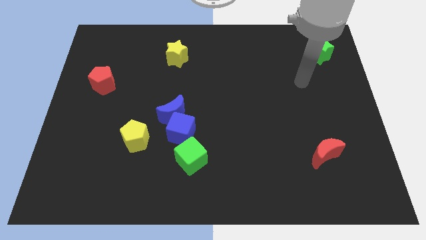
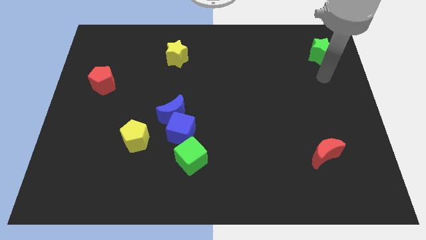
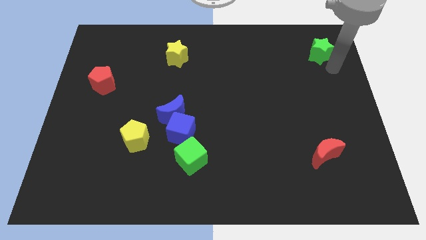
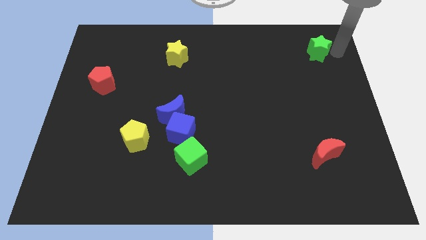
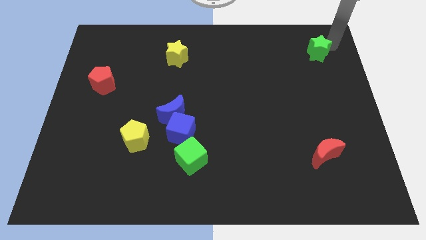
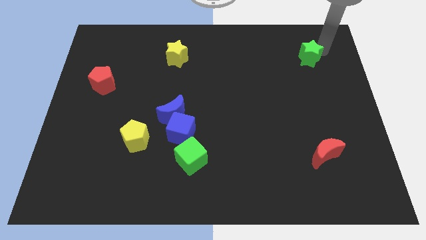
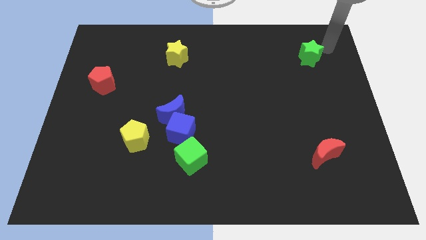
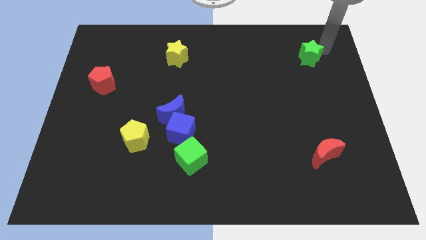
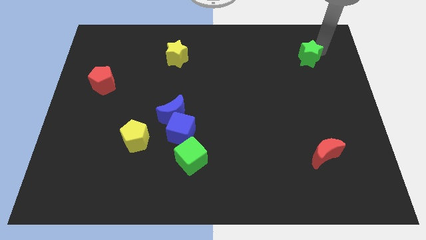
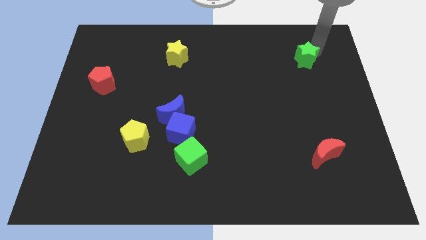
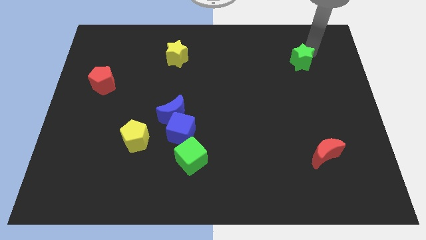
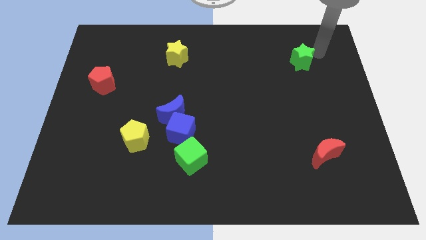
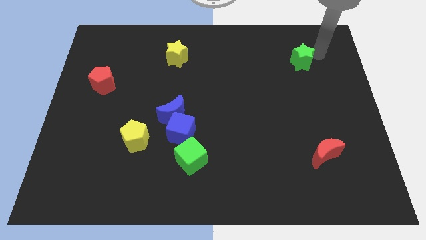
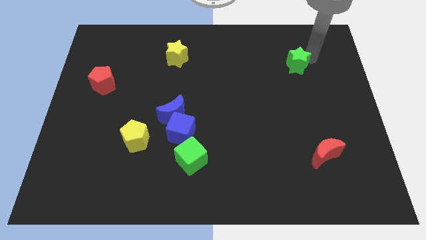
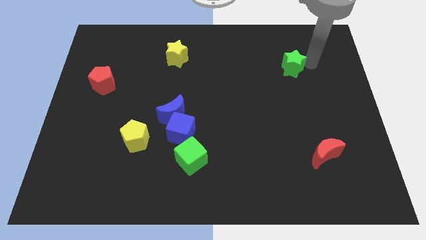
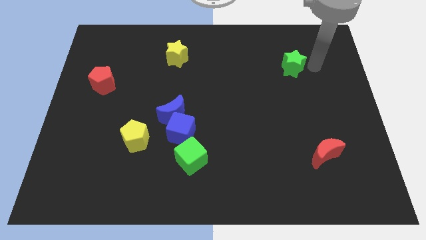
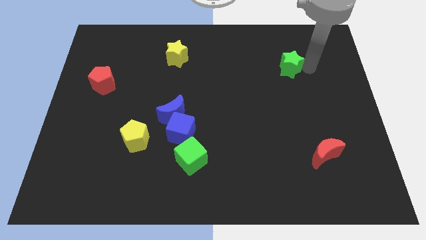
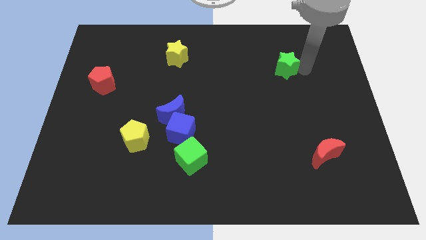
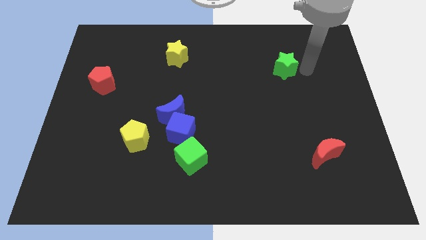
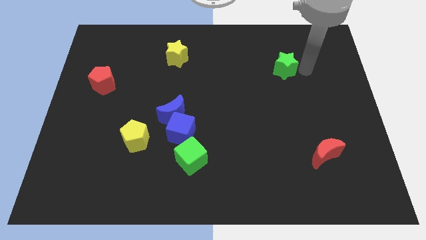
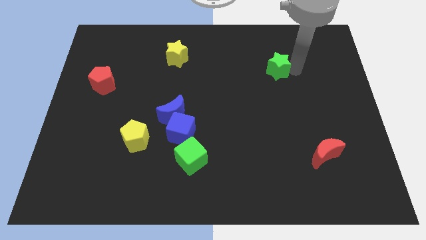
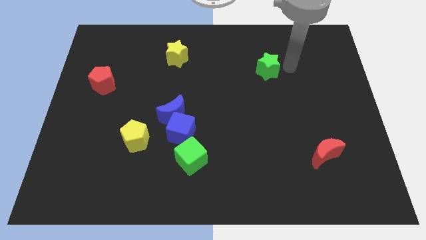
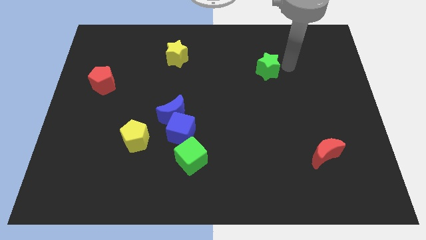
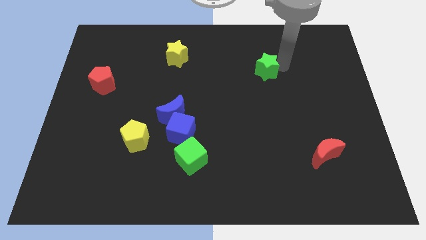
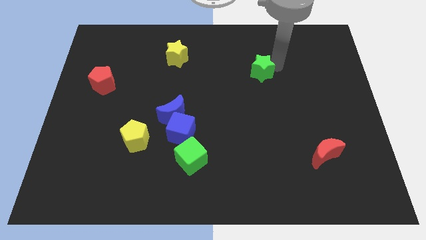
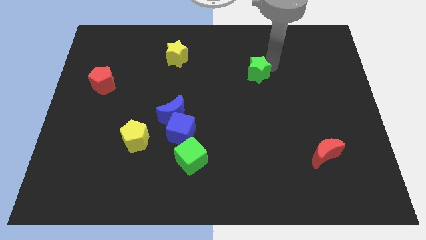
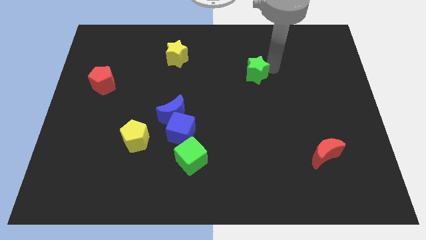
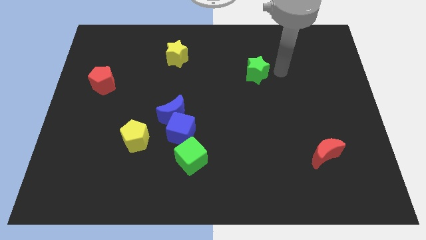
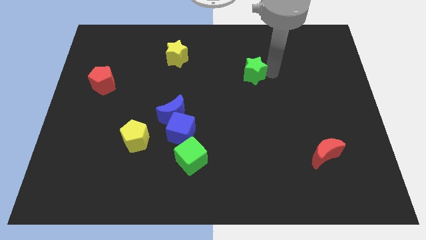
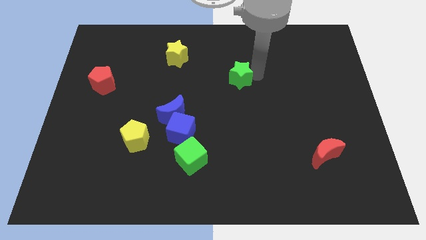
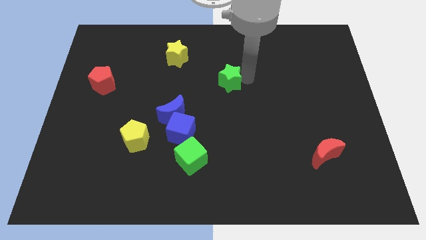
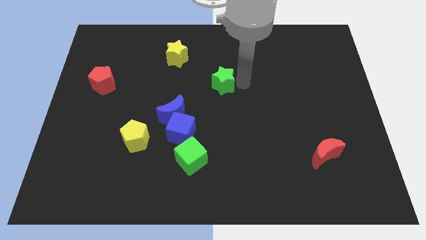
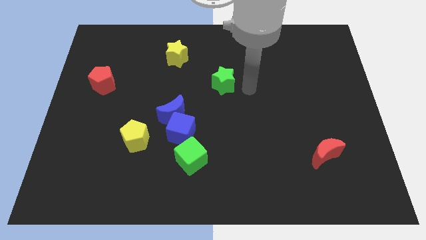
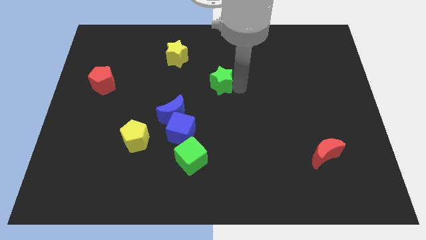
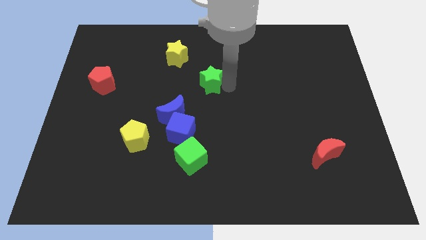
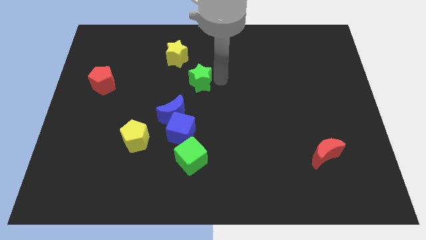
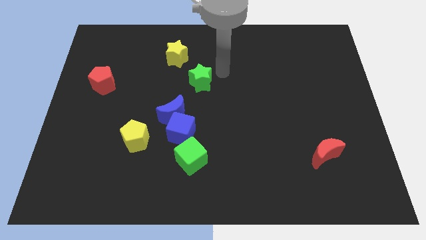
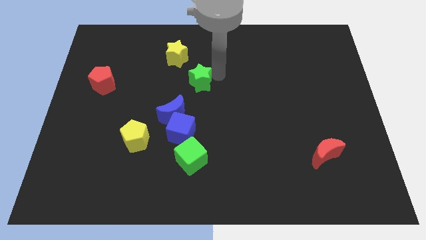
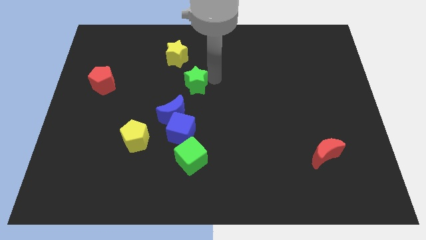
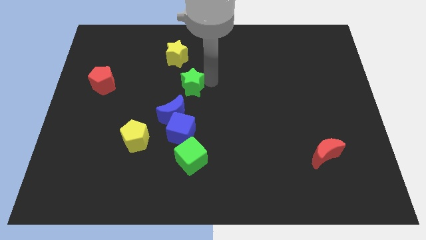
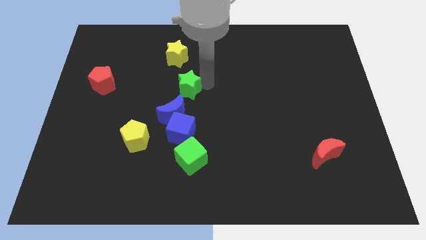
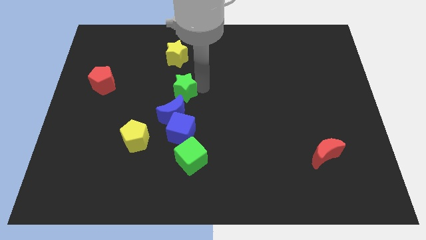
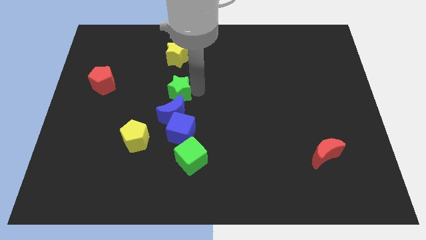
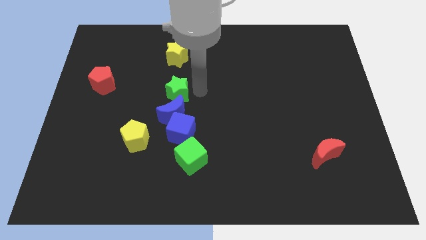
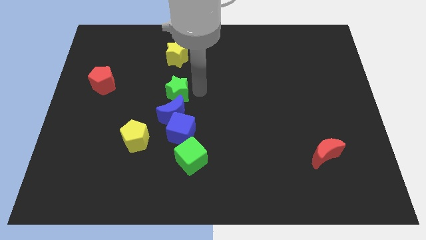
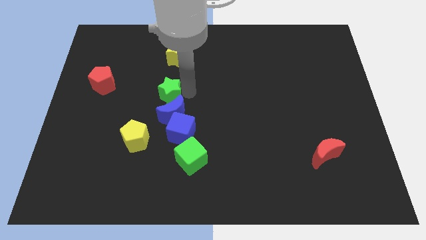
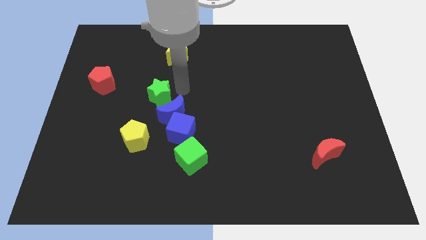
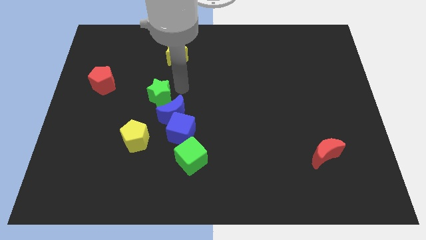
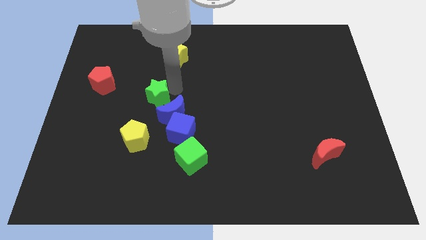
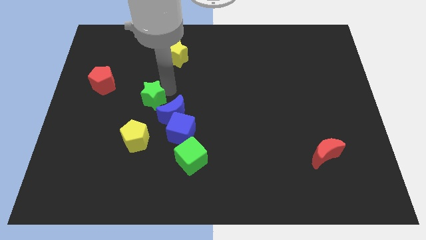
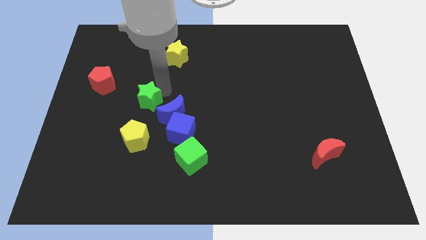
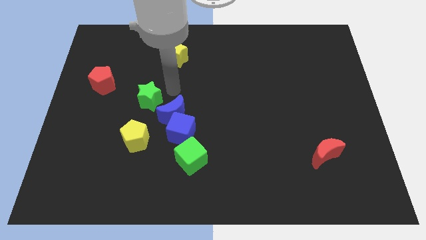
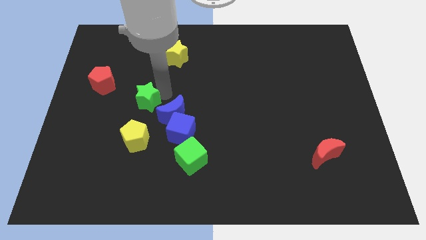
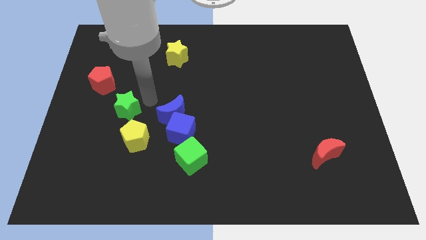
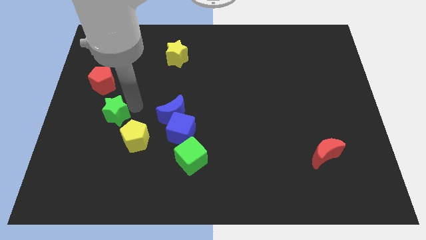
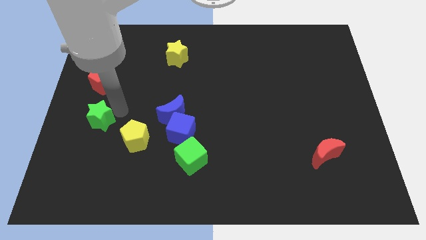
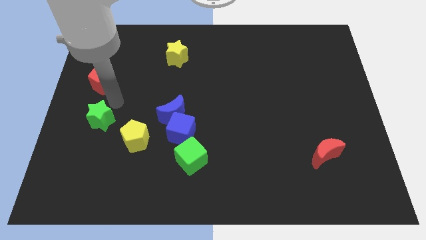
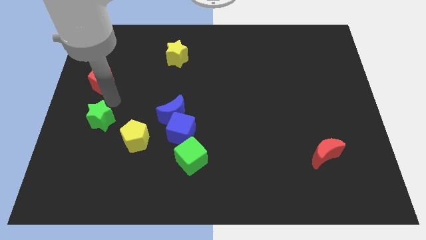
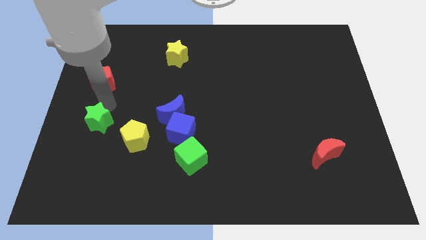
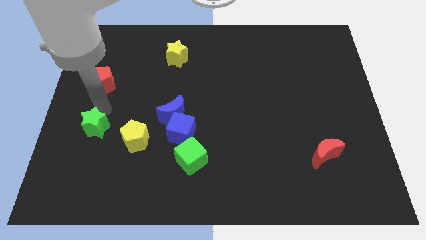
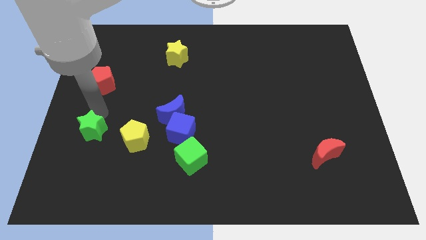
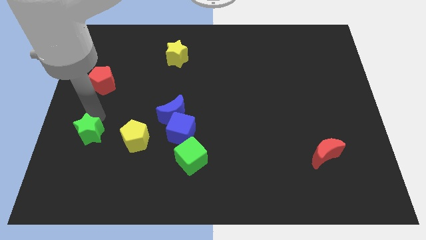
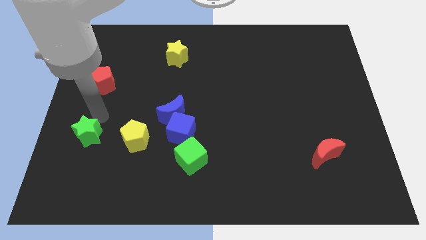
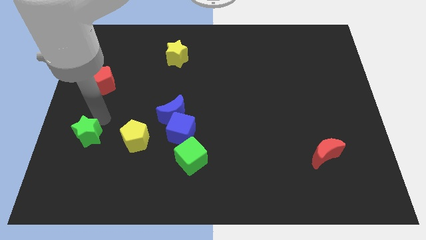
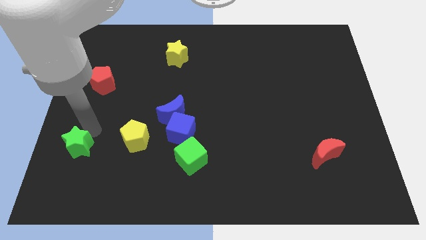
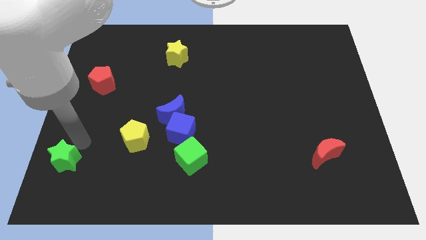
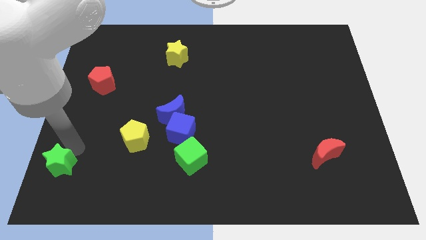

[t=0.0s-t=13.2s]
slide the green star to the lower left corner
